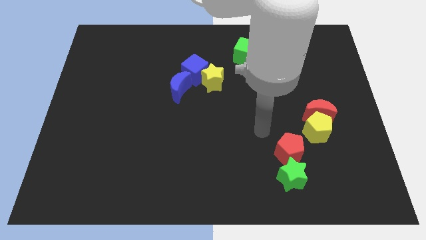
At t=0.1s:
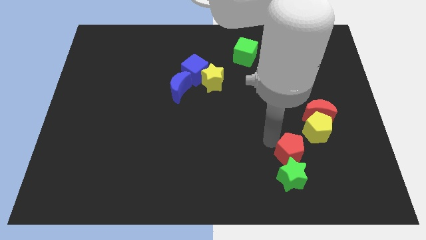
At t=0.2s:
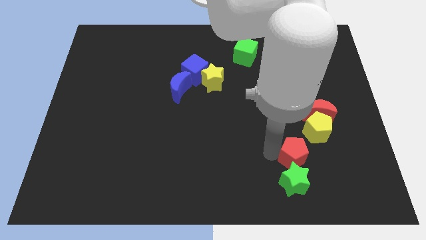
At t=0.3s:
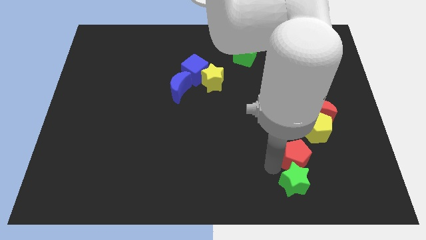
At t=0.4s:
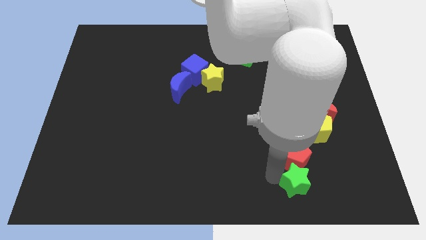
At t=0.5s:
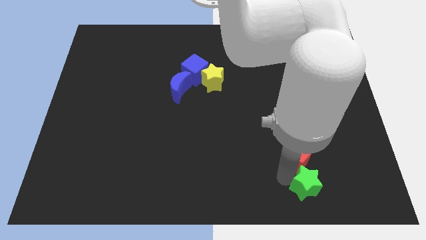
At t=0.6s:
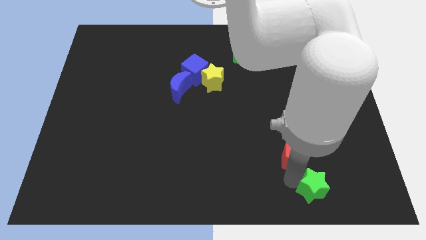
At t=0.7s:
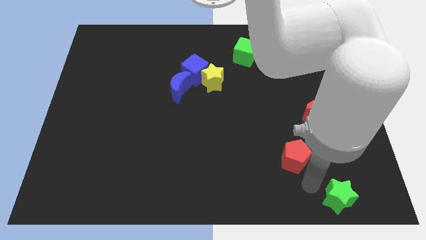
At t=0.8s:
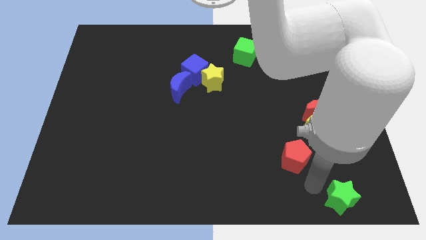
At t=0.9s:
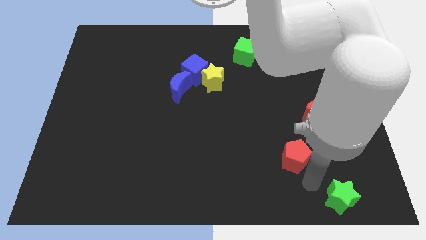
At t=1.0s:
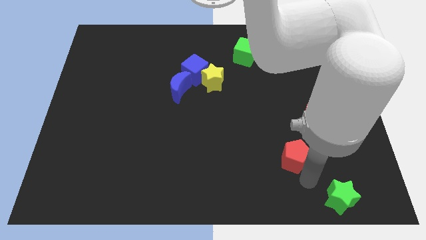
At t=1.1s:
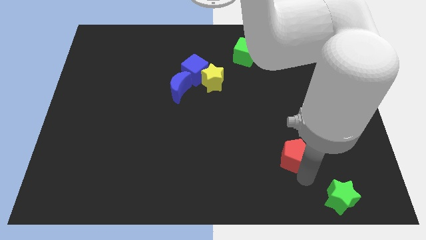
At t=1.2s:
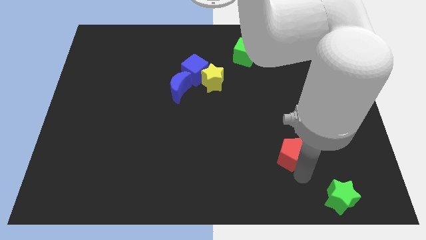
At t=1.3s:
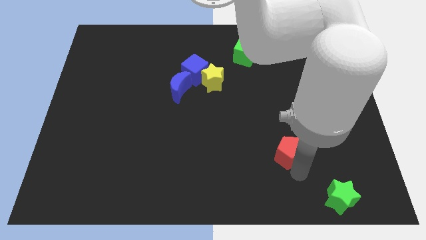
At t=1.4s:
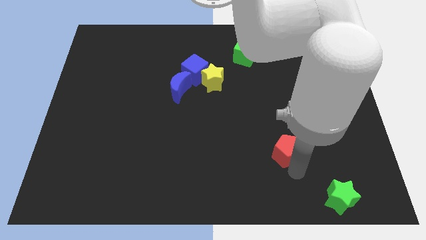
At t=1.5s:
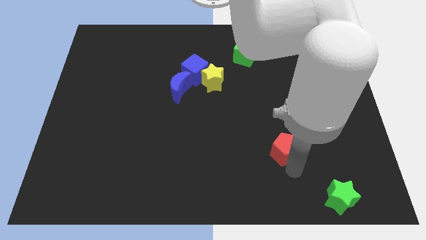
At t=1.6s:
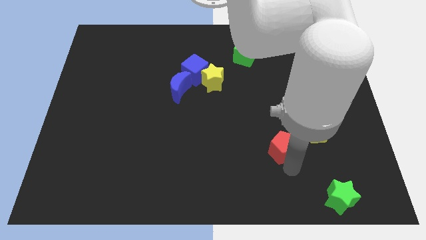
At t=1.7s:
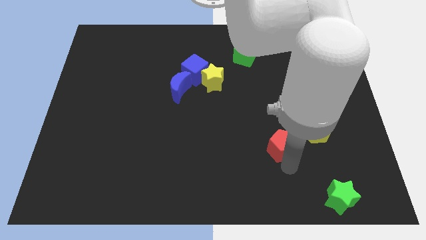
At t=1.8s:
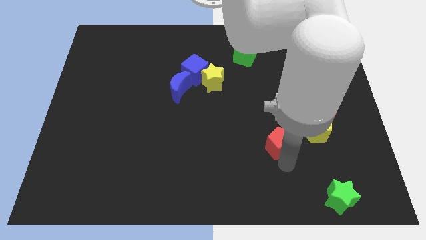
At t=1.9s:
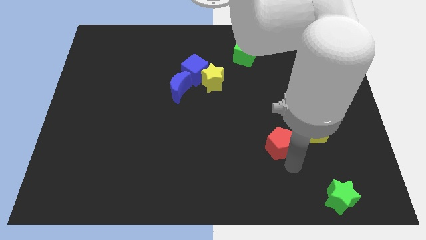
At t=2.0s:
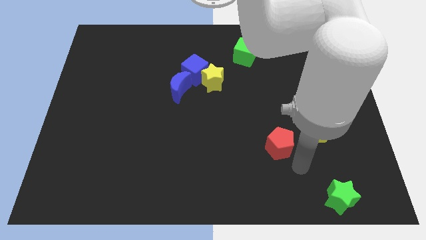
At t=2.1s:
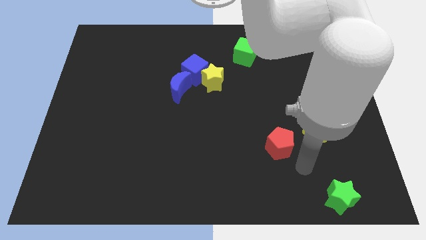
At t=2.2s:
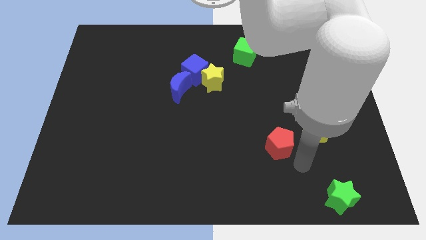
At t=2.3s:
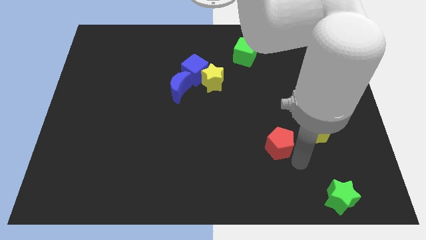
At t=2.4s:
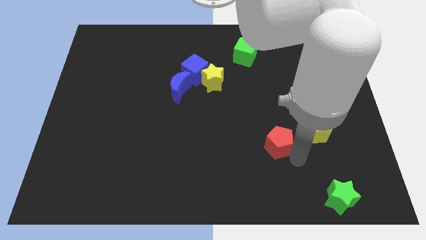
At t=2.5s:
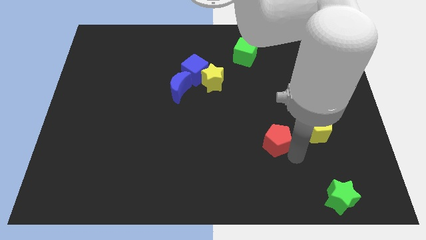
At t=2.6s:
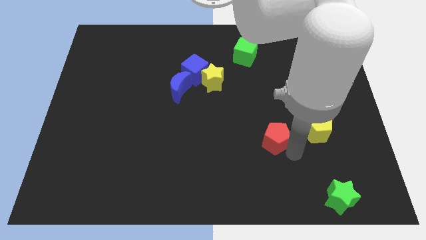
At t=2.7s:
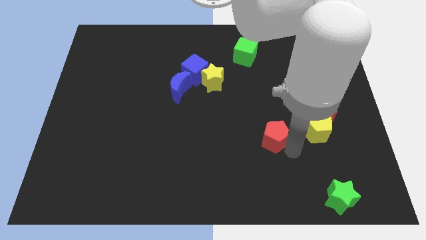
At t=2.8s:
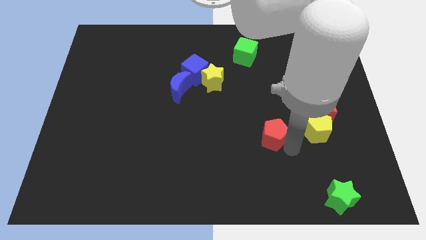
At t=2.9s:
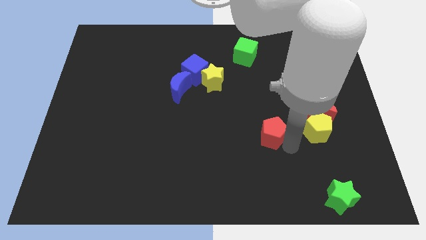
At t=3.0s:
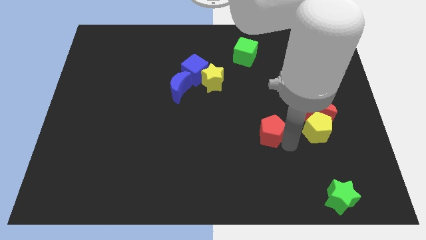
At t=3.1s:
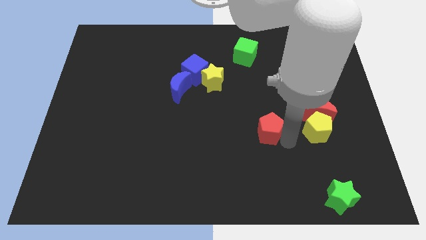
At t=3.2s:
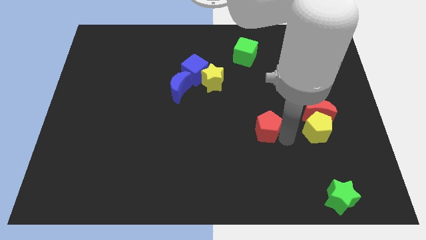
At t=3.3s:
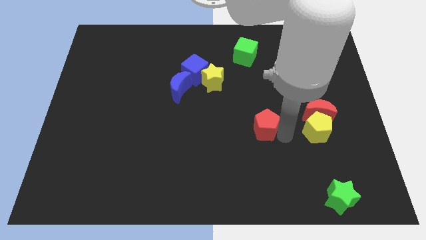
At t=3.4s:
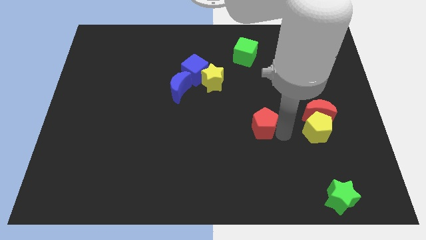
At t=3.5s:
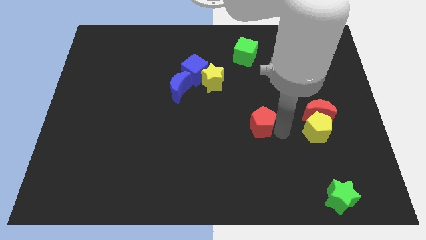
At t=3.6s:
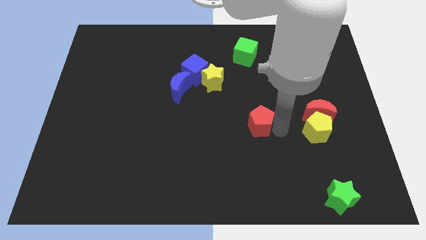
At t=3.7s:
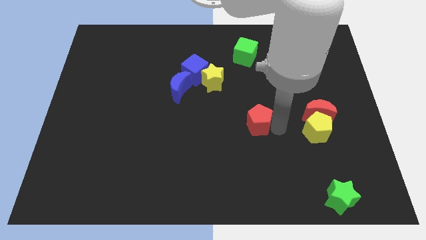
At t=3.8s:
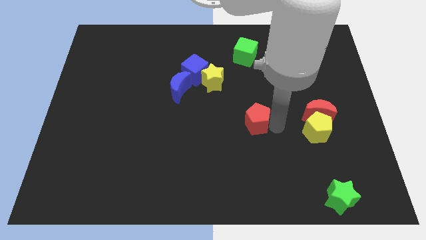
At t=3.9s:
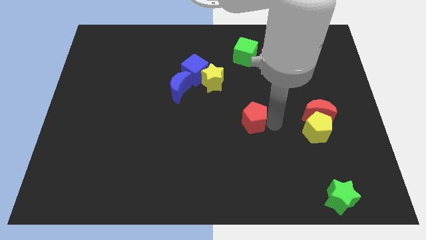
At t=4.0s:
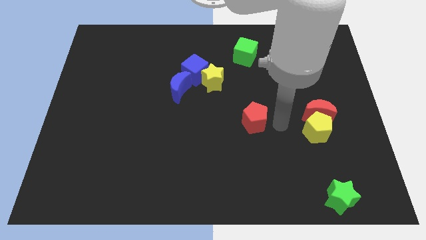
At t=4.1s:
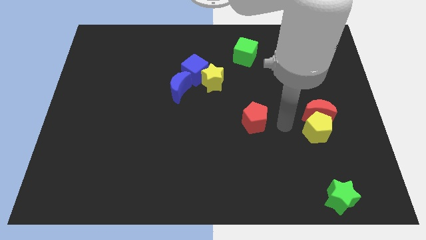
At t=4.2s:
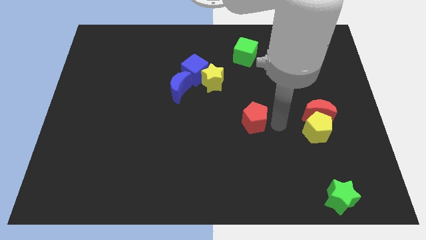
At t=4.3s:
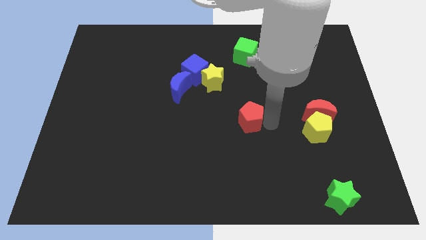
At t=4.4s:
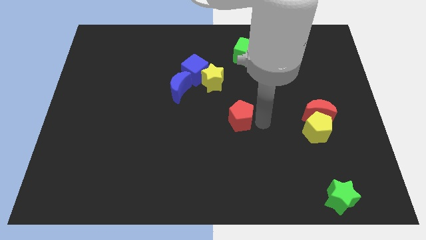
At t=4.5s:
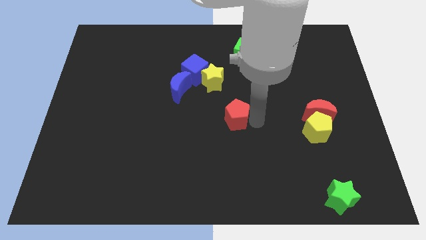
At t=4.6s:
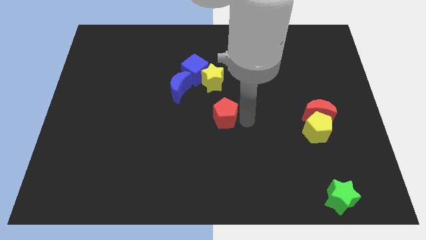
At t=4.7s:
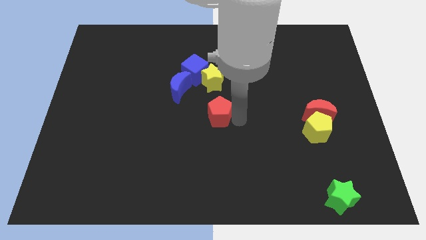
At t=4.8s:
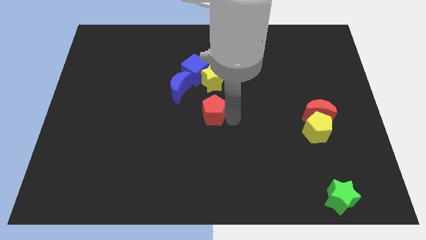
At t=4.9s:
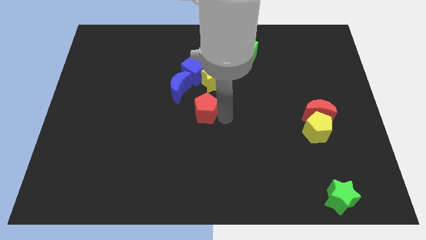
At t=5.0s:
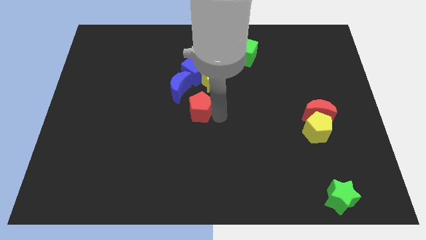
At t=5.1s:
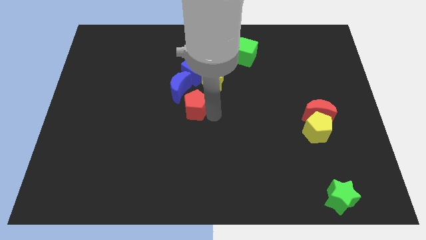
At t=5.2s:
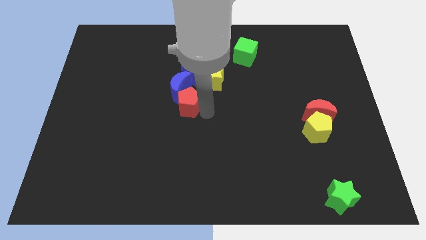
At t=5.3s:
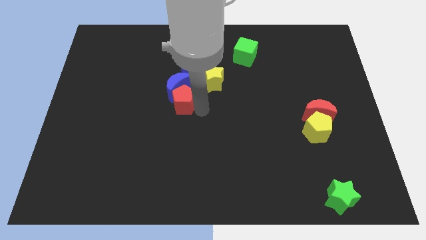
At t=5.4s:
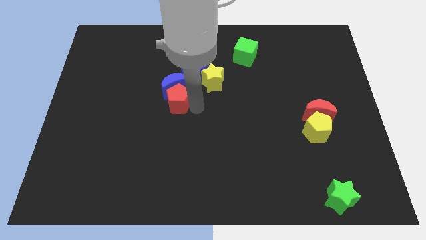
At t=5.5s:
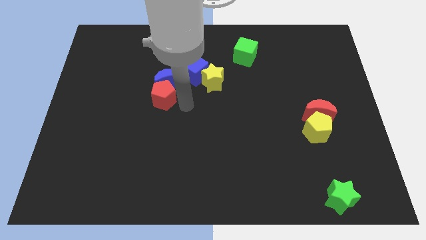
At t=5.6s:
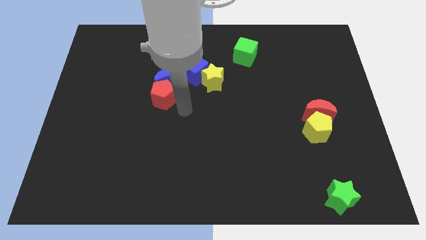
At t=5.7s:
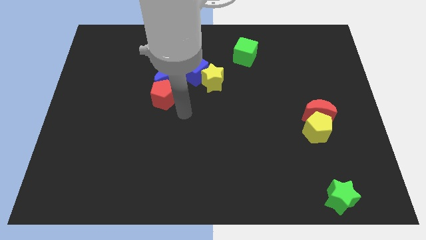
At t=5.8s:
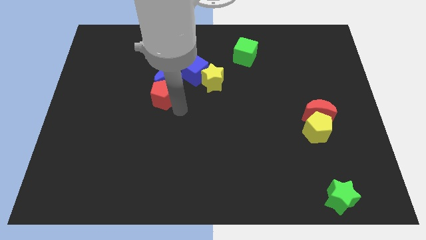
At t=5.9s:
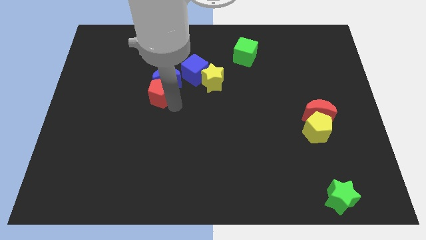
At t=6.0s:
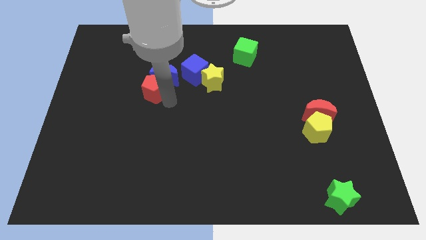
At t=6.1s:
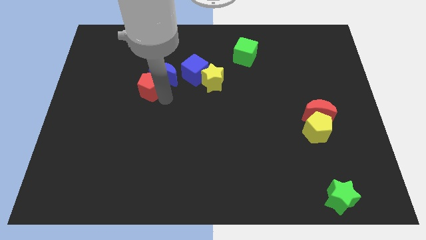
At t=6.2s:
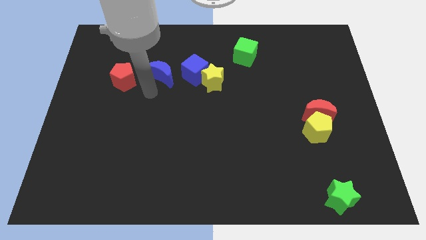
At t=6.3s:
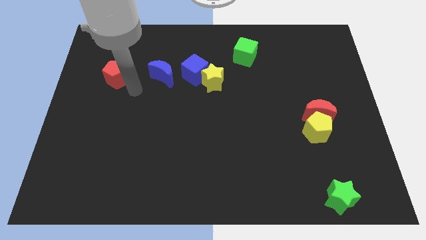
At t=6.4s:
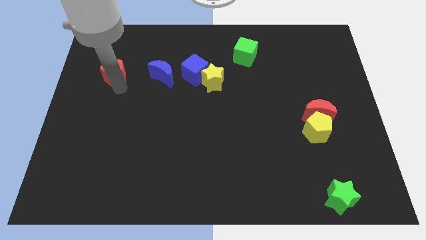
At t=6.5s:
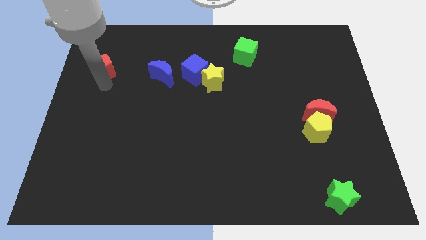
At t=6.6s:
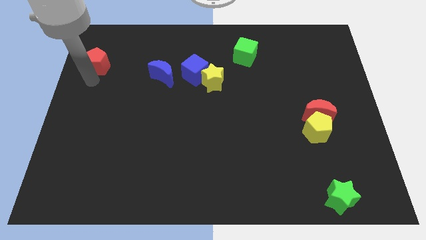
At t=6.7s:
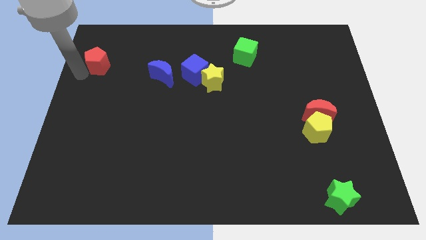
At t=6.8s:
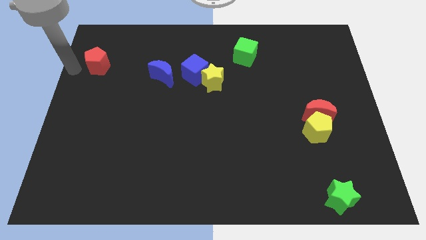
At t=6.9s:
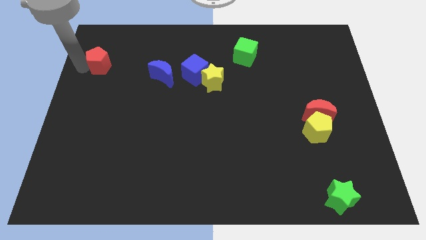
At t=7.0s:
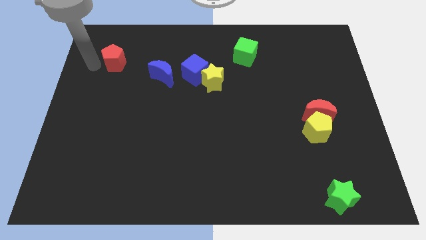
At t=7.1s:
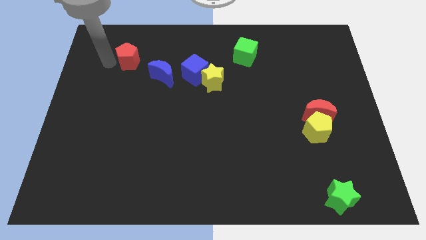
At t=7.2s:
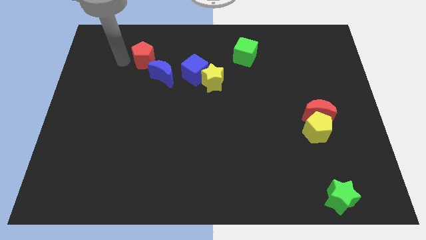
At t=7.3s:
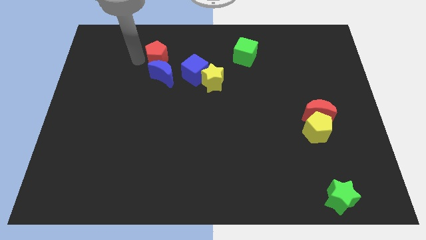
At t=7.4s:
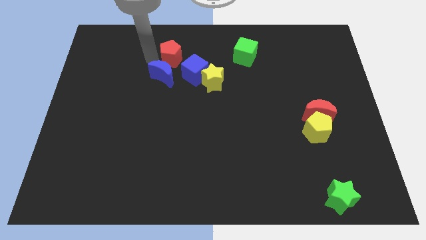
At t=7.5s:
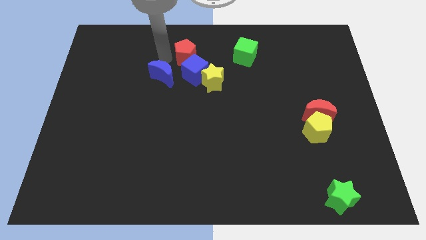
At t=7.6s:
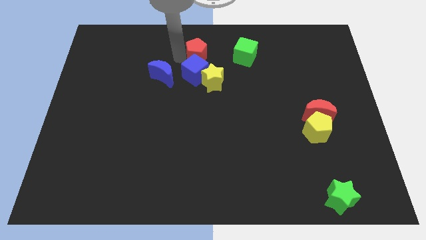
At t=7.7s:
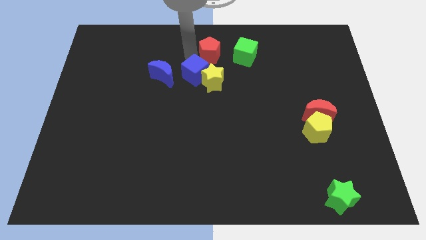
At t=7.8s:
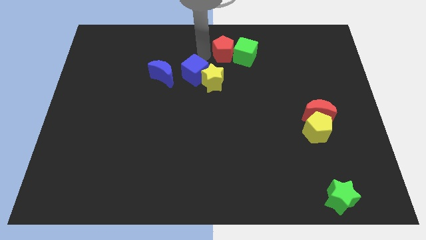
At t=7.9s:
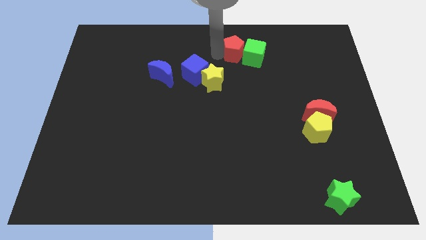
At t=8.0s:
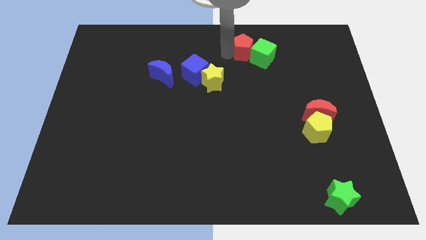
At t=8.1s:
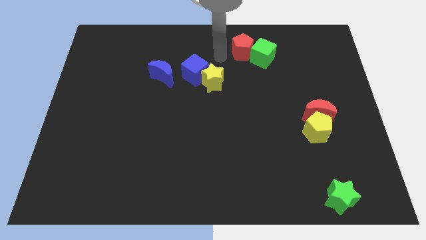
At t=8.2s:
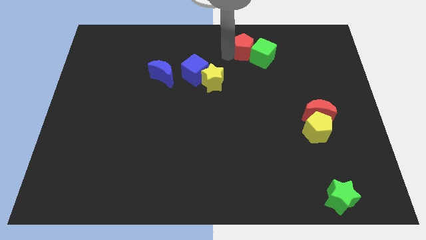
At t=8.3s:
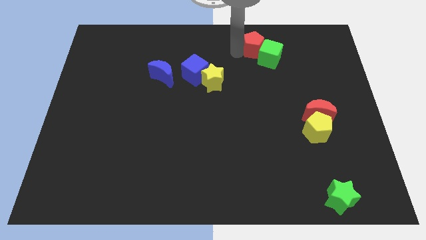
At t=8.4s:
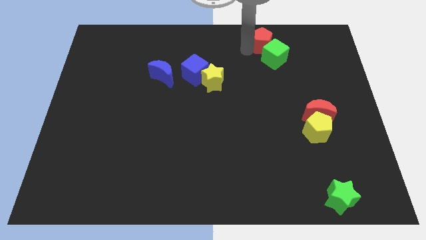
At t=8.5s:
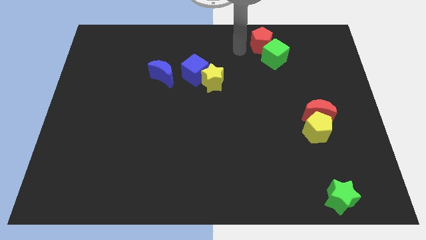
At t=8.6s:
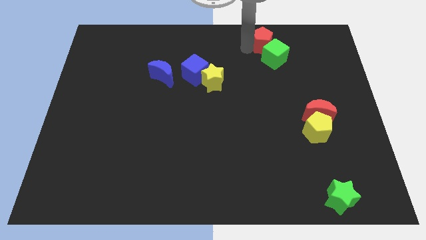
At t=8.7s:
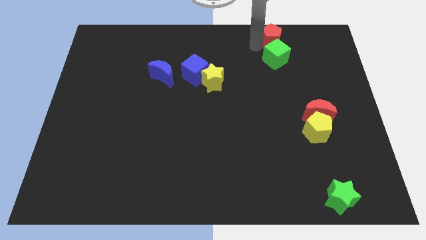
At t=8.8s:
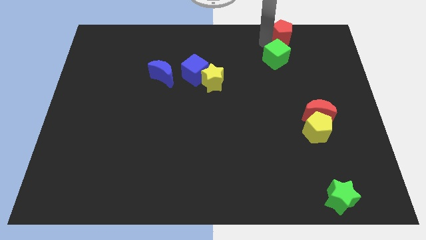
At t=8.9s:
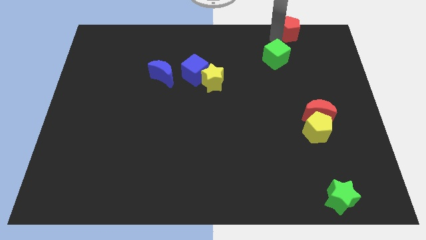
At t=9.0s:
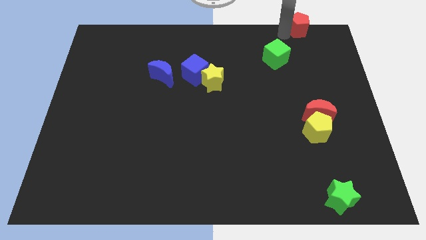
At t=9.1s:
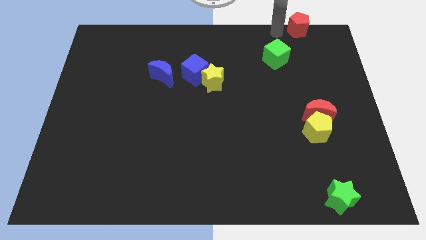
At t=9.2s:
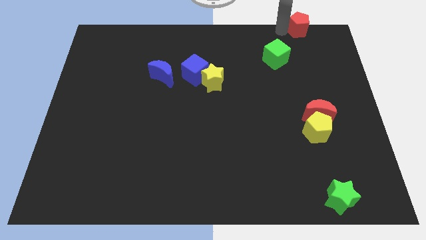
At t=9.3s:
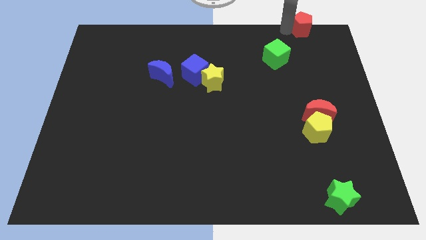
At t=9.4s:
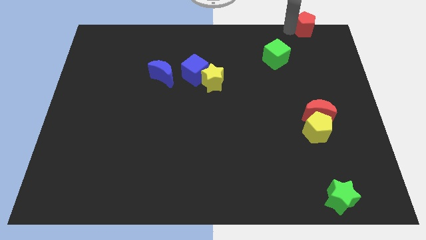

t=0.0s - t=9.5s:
move the red pentagon to the top right corner
